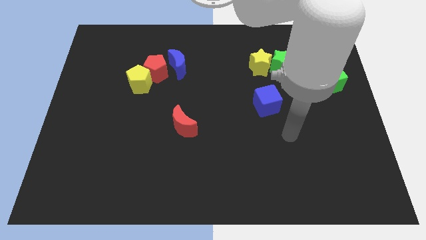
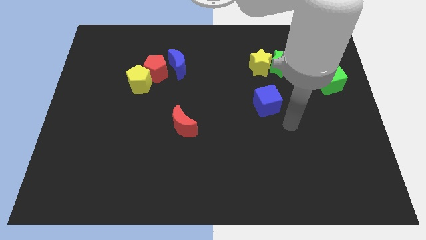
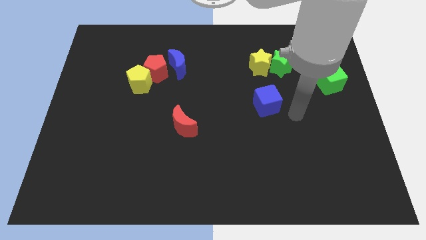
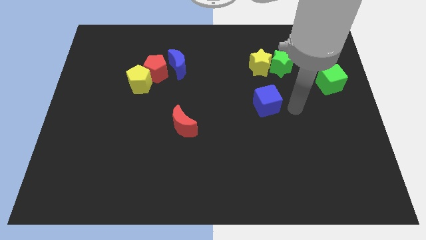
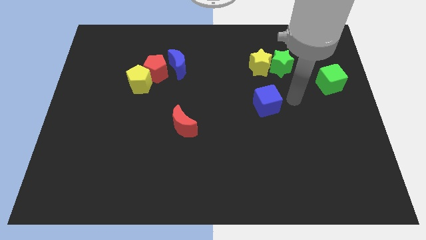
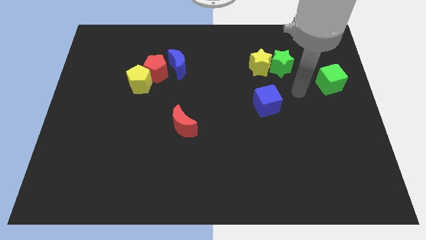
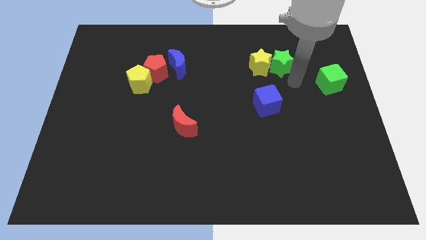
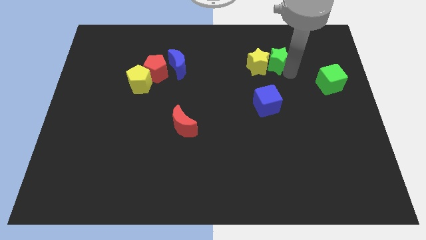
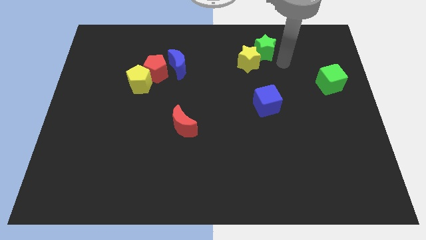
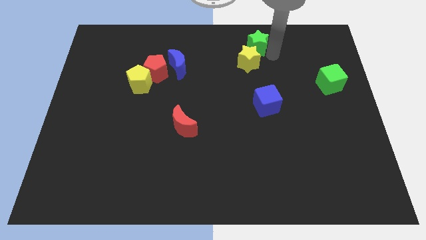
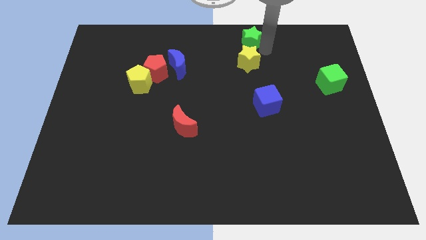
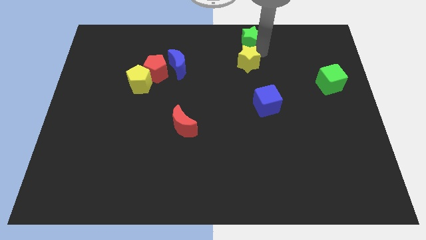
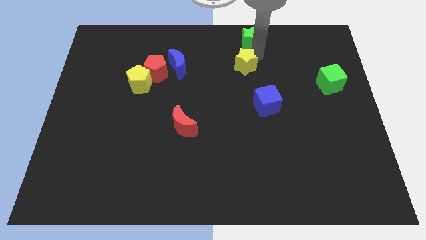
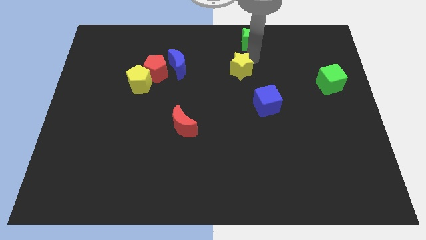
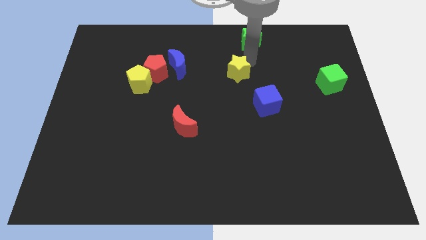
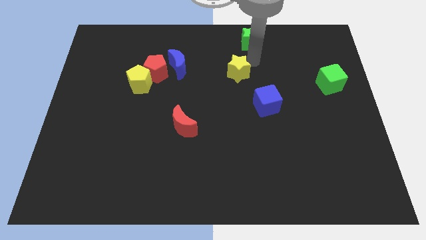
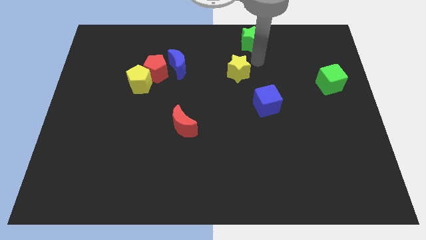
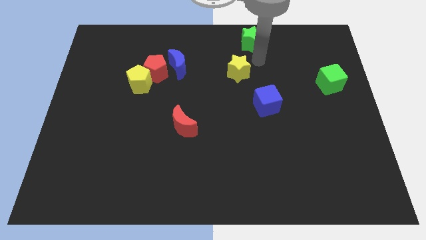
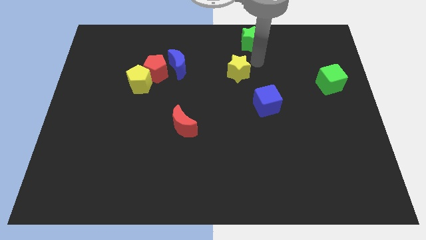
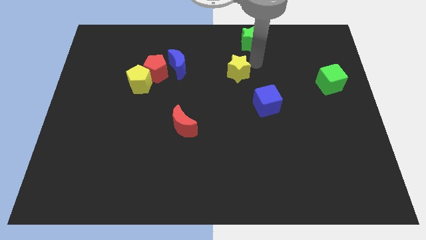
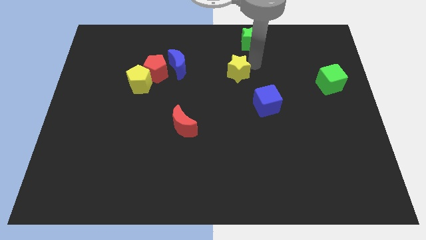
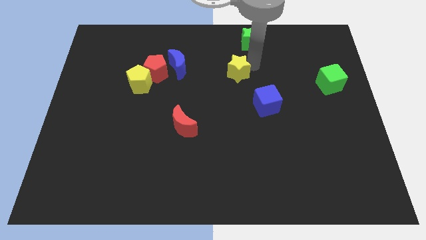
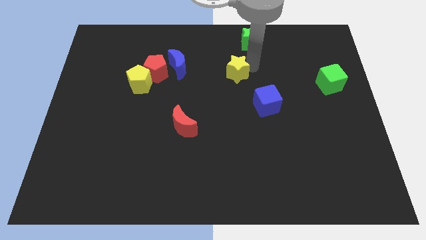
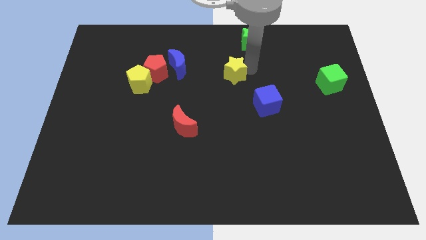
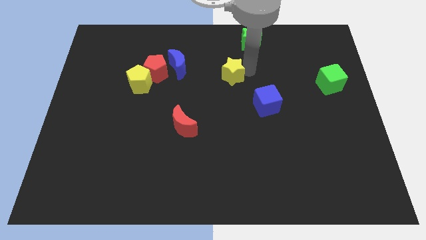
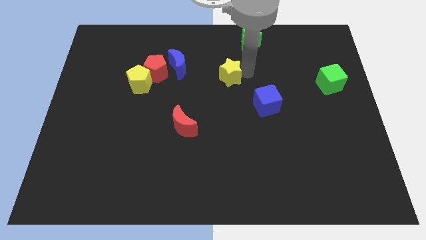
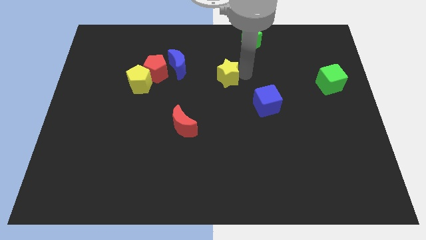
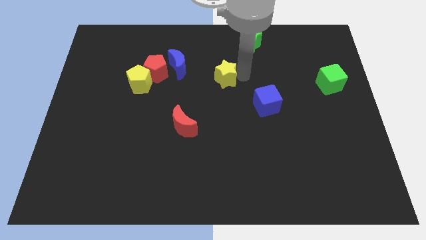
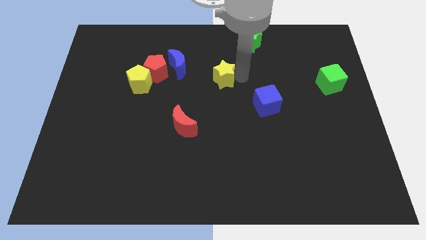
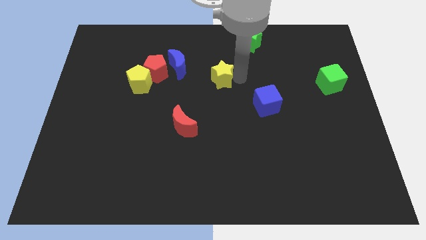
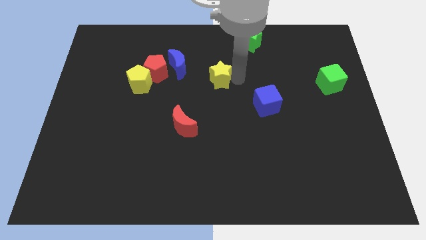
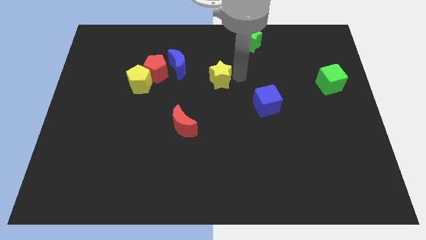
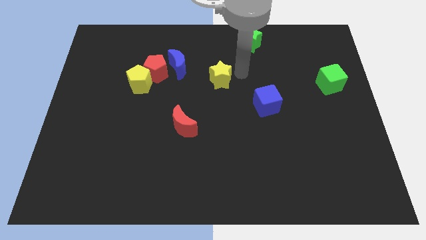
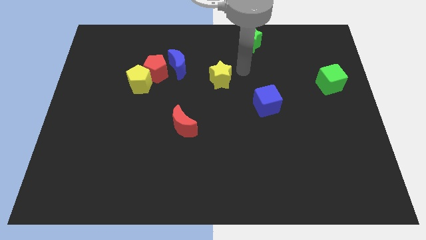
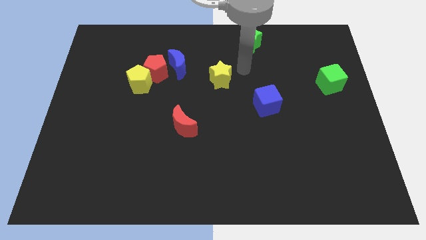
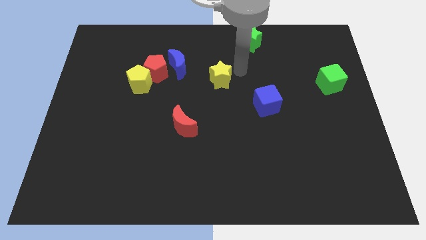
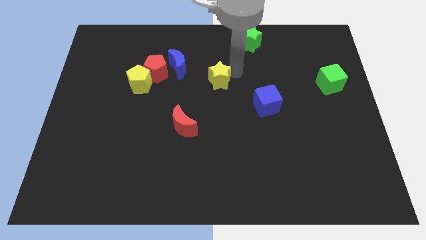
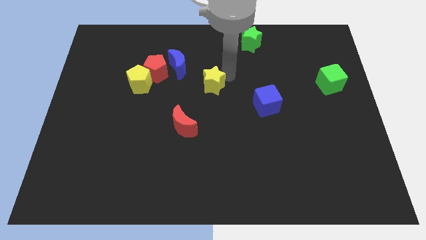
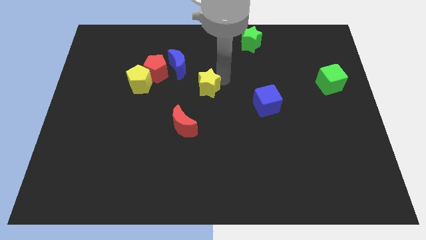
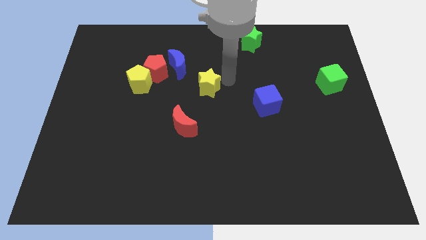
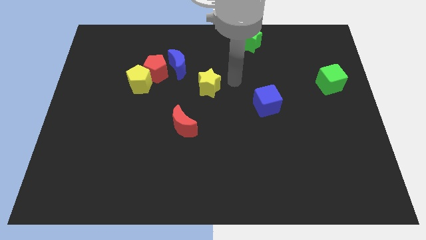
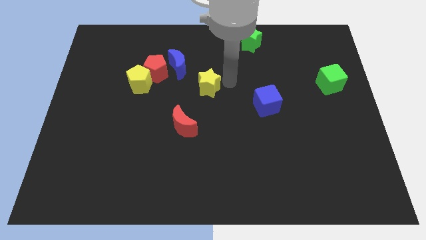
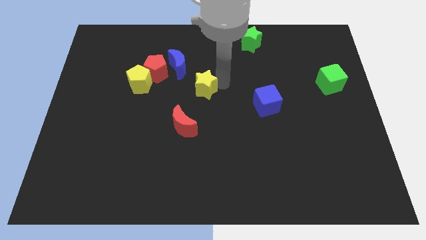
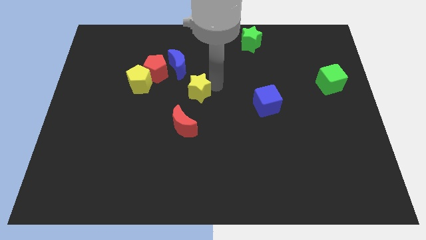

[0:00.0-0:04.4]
slide the yellow star to the top side of the red moon

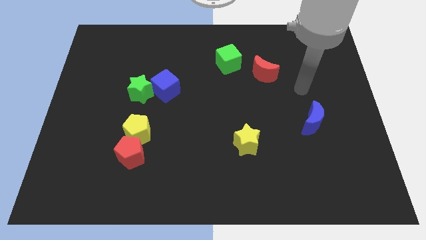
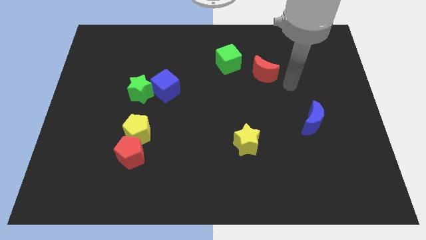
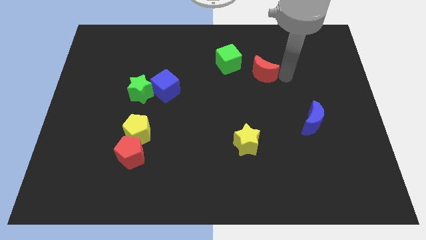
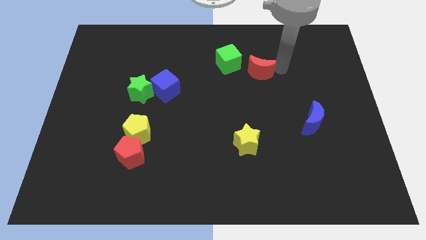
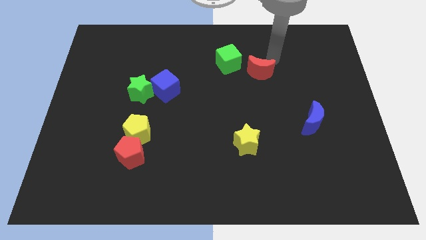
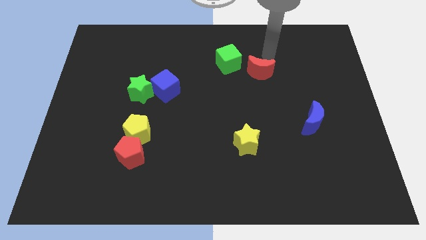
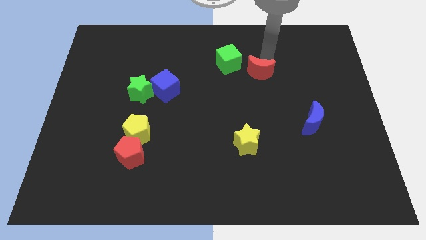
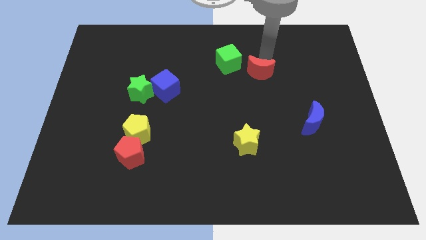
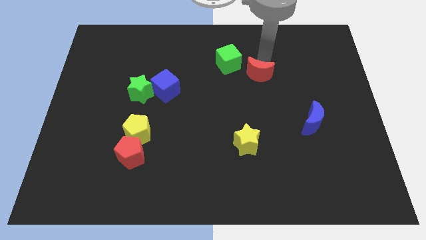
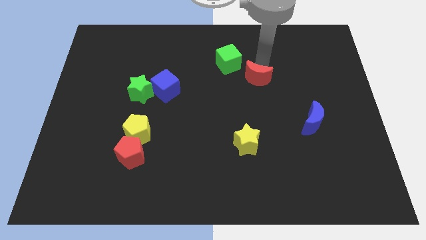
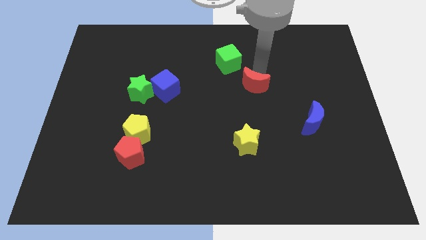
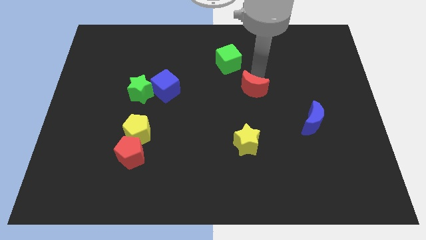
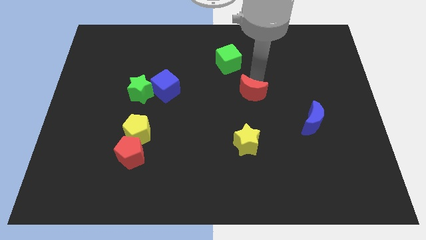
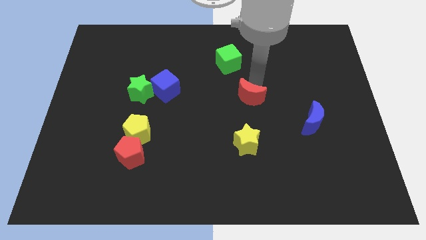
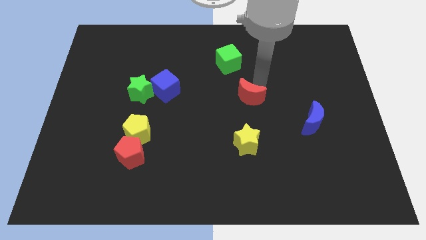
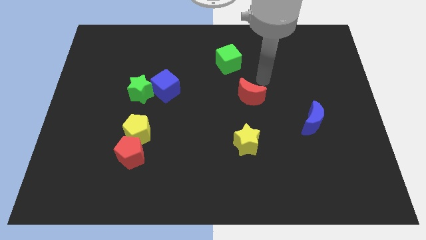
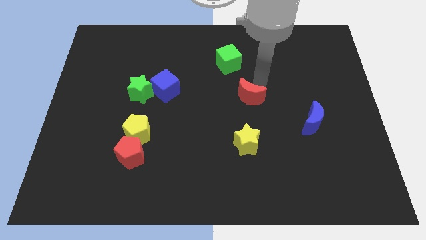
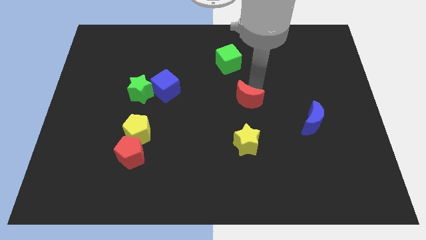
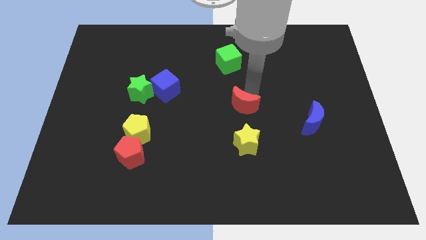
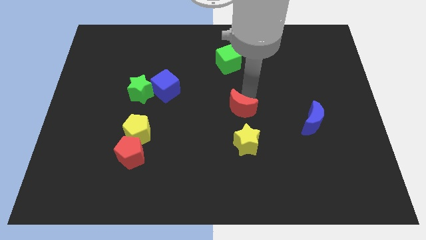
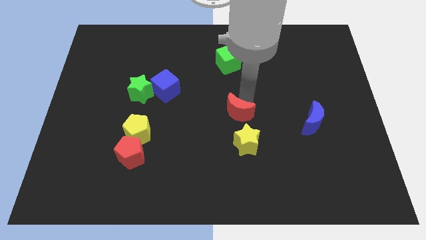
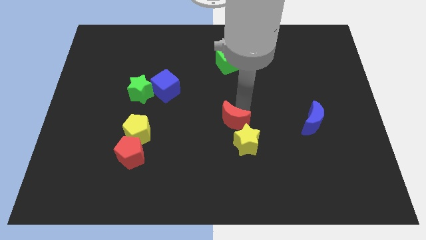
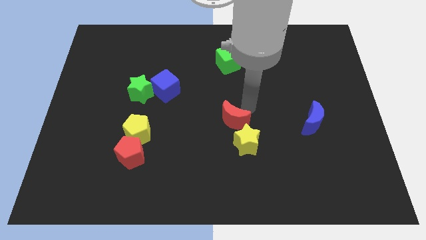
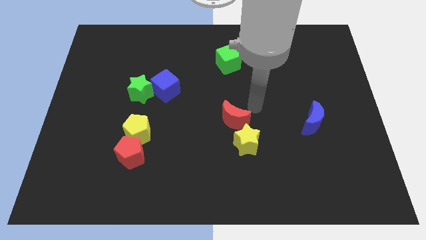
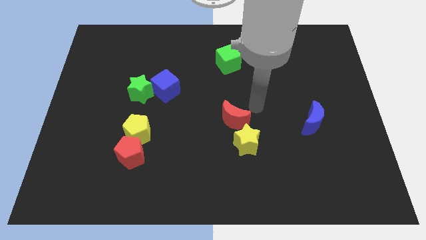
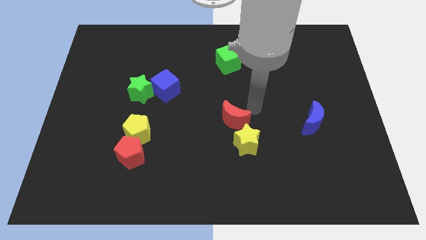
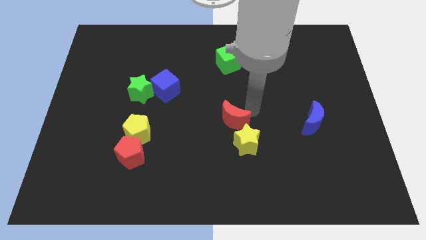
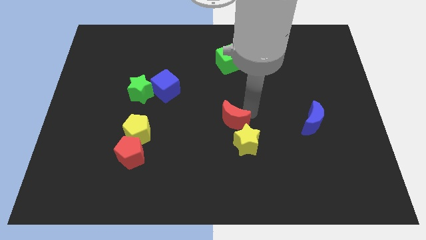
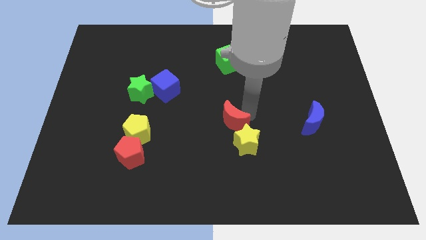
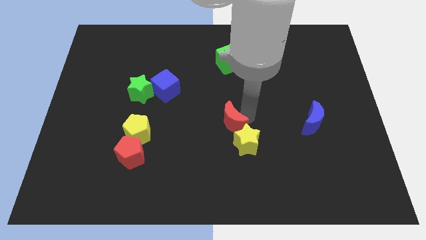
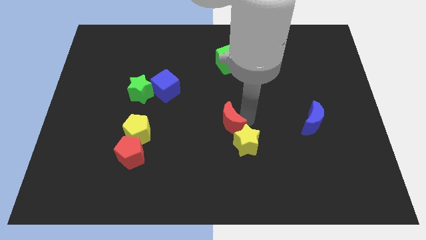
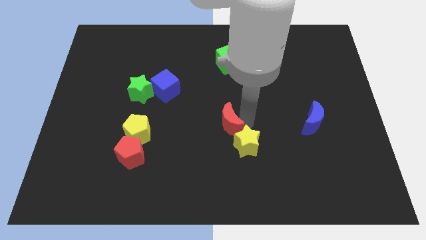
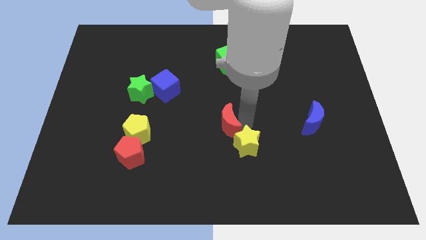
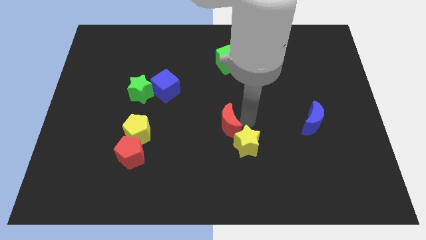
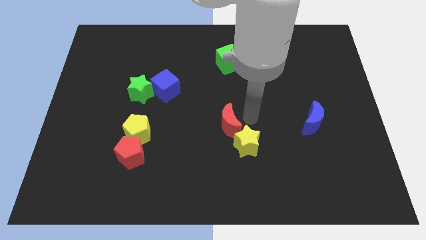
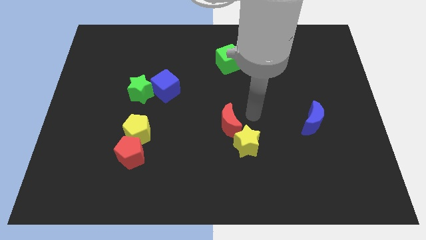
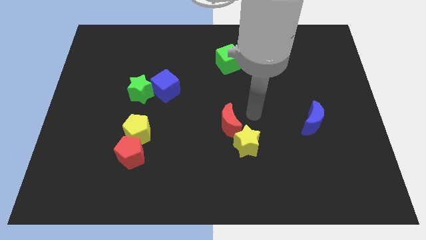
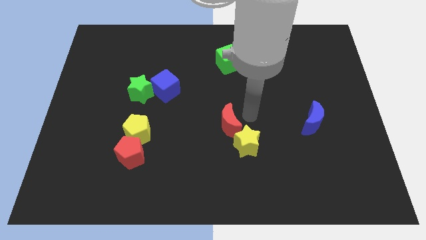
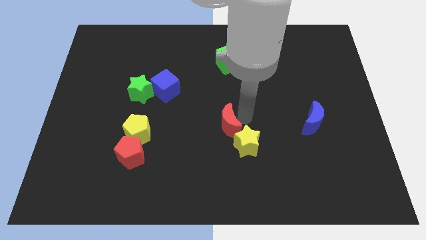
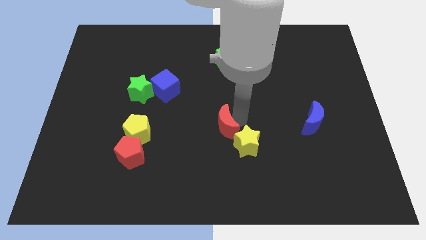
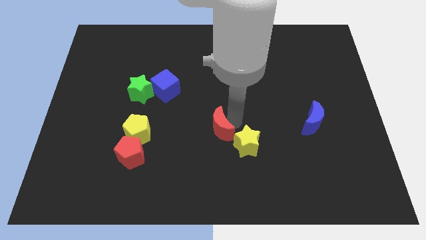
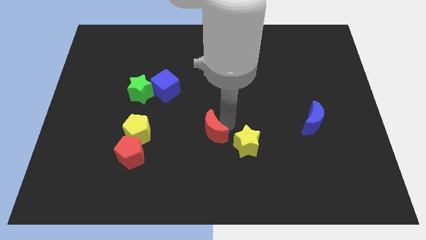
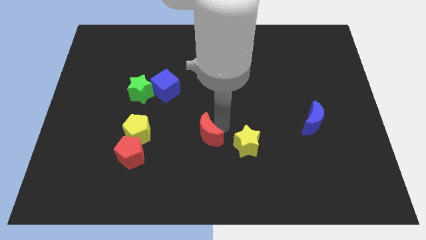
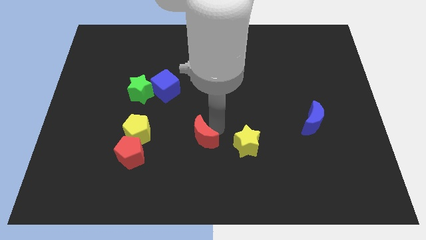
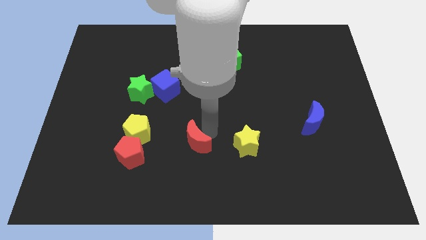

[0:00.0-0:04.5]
slide the red moon right of the red pentagon
